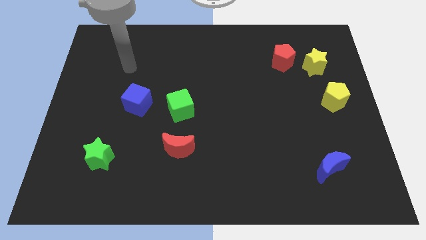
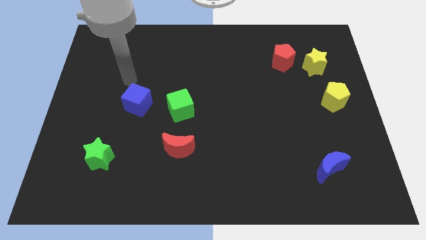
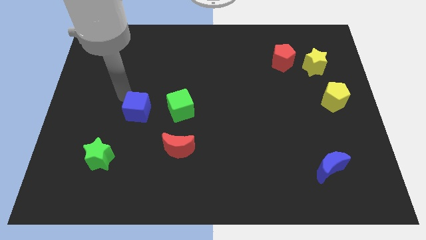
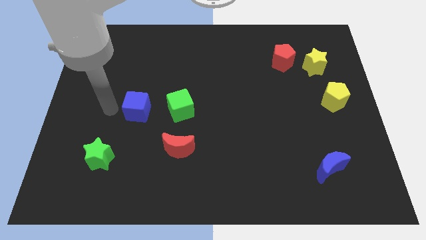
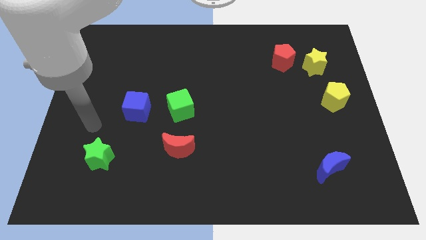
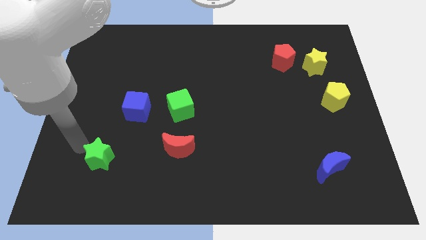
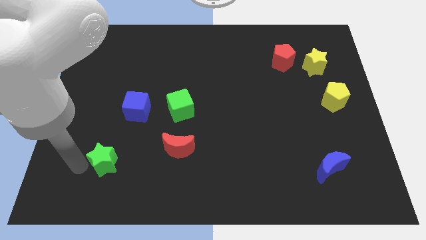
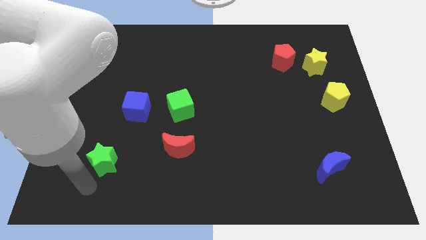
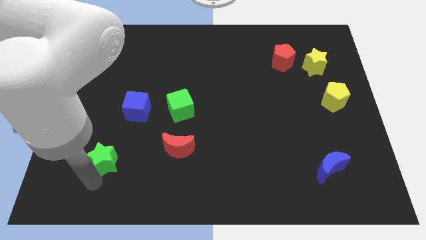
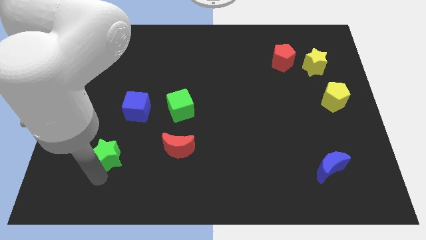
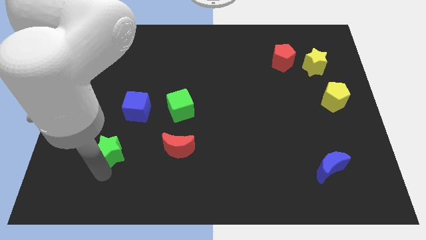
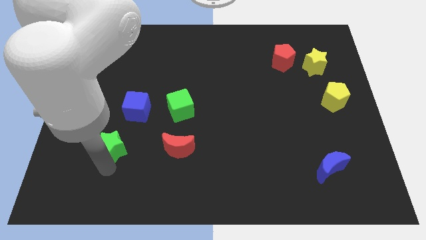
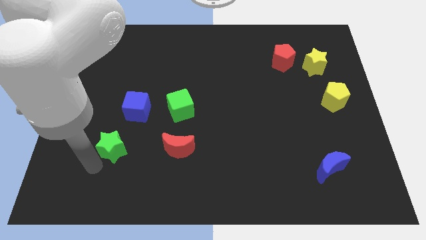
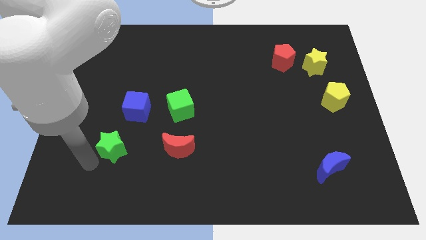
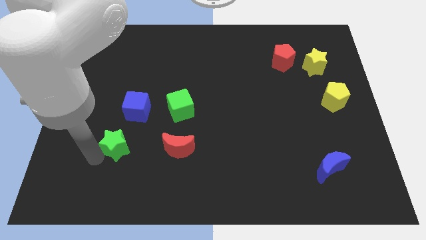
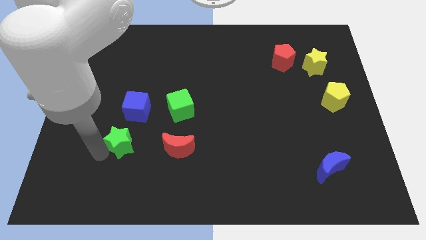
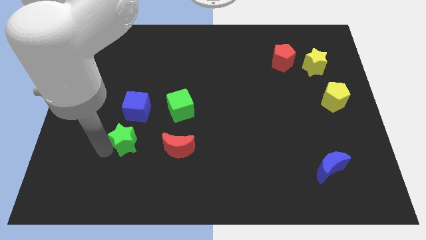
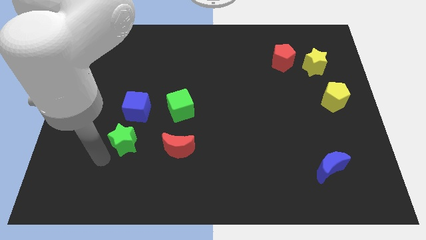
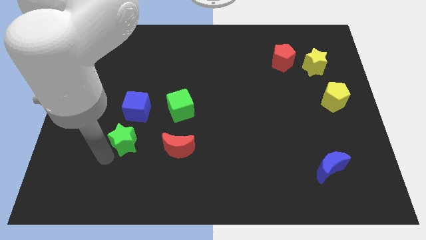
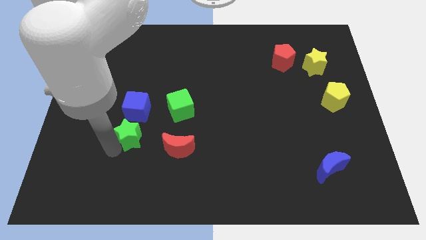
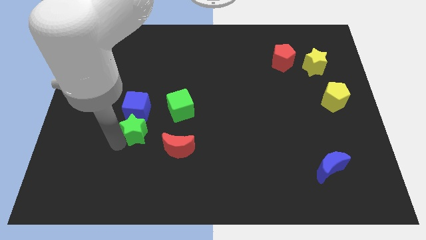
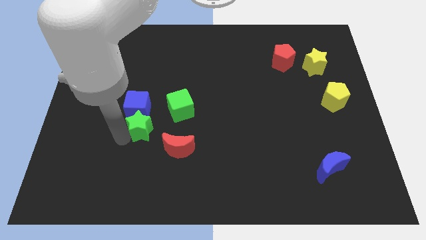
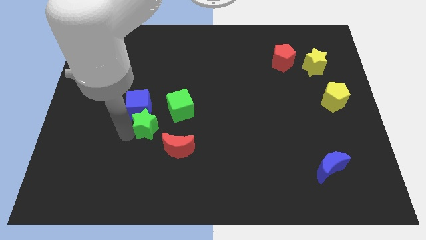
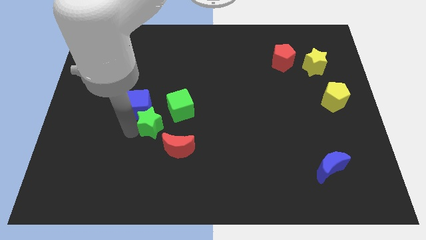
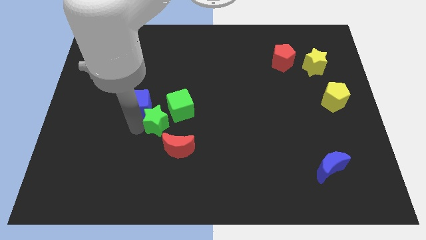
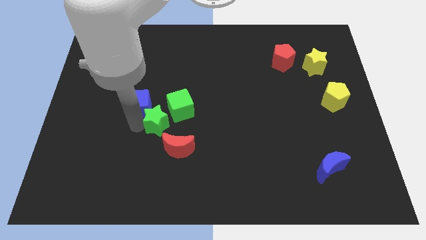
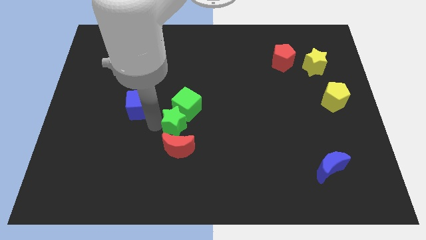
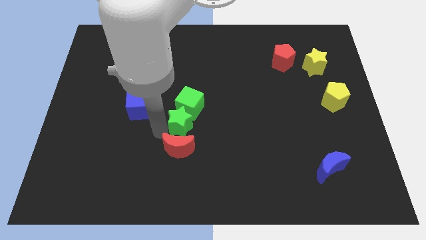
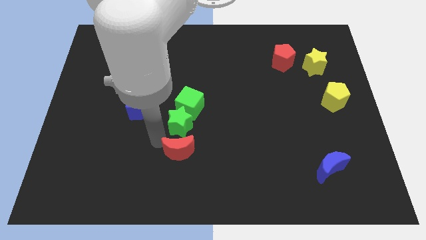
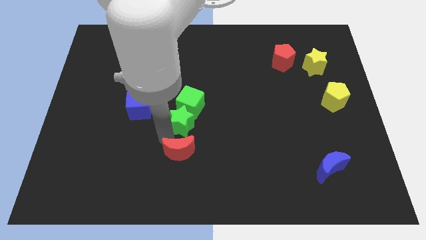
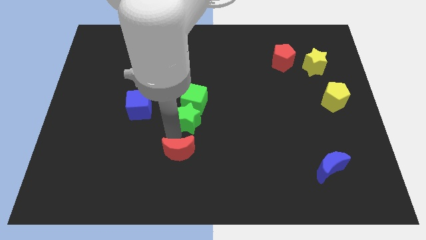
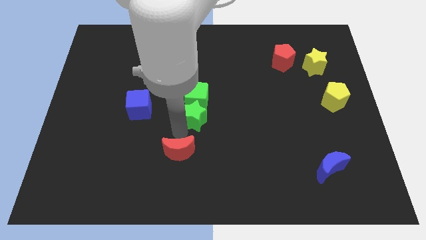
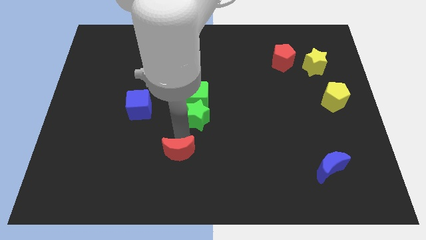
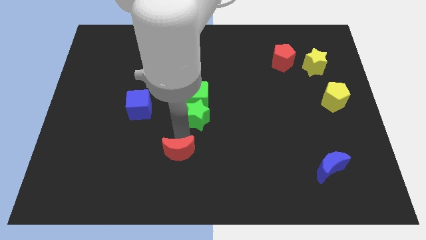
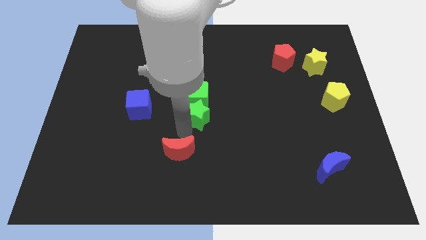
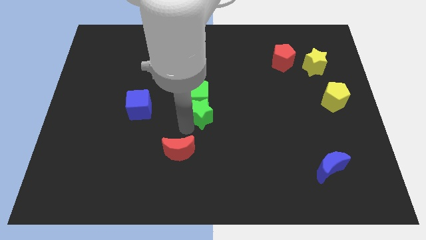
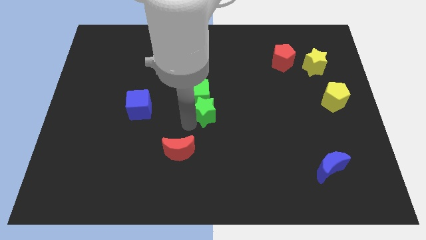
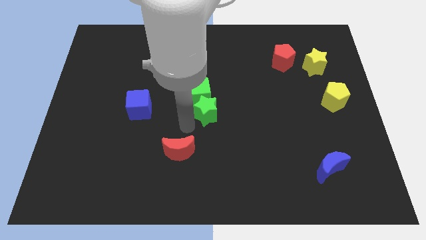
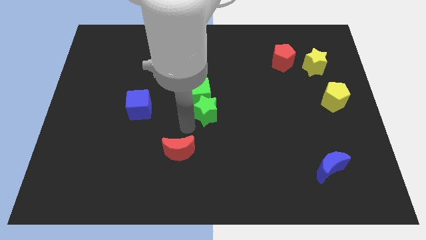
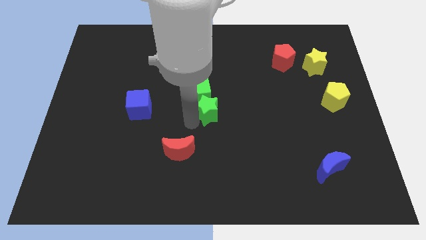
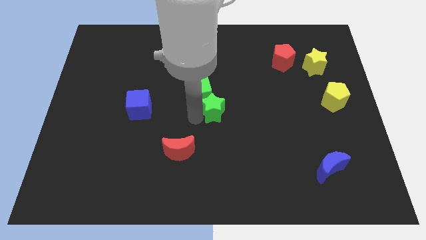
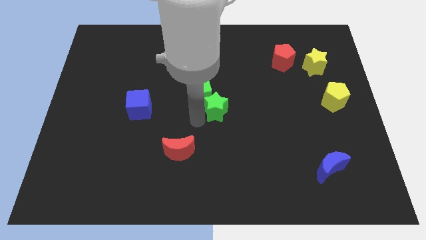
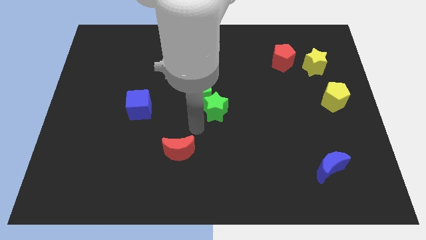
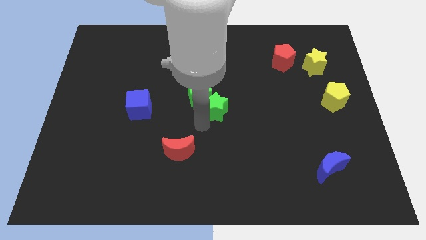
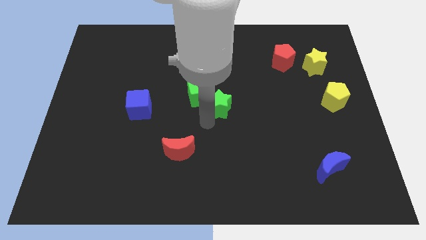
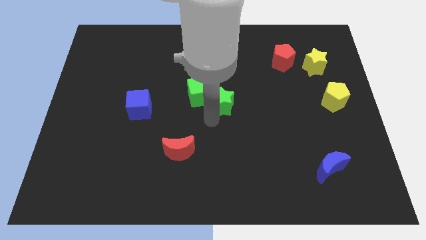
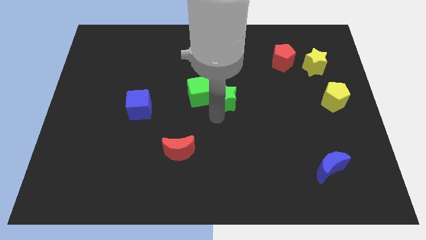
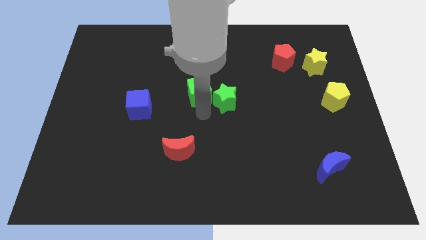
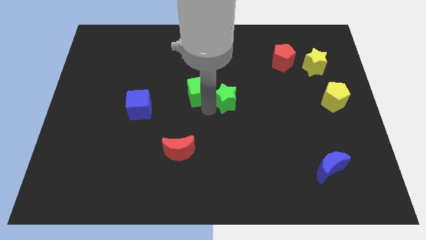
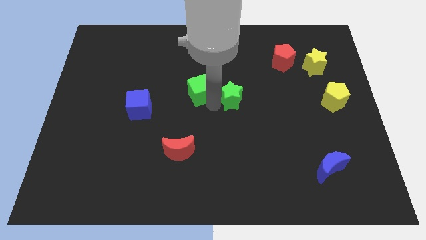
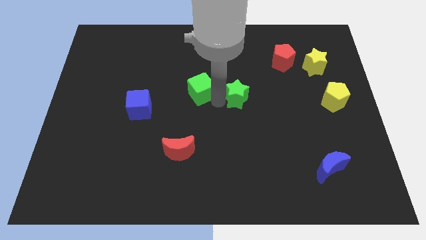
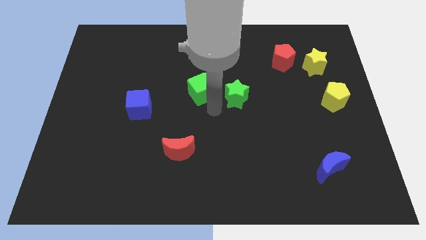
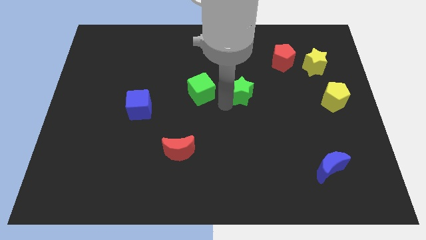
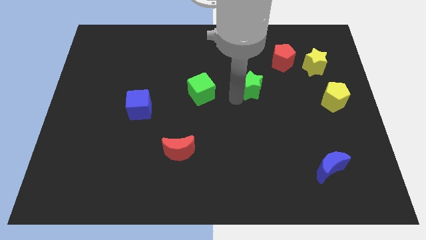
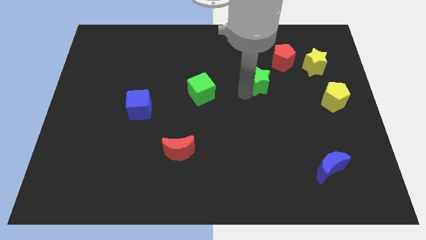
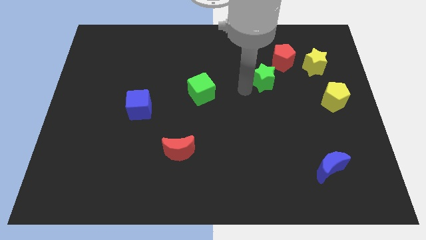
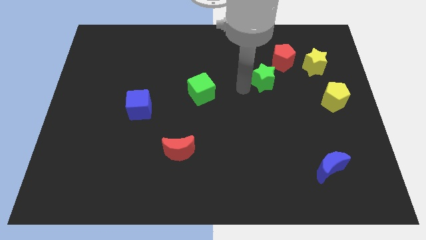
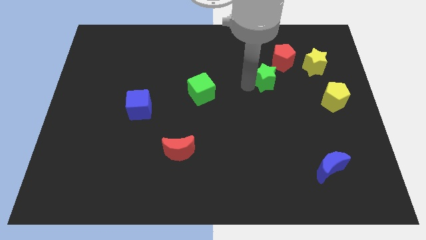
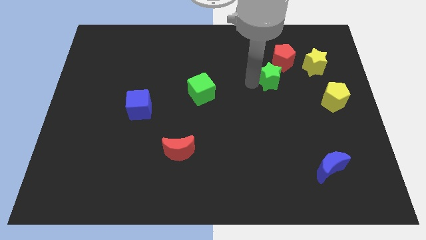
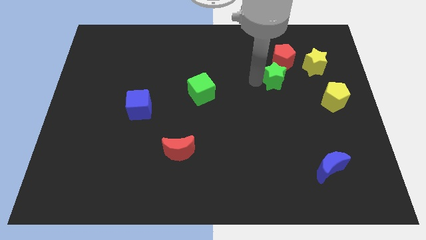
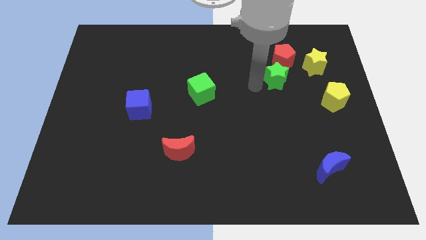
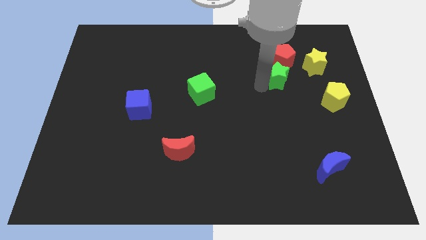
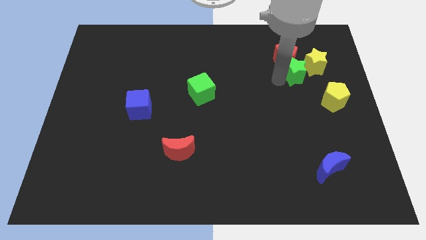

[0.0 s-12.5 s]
move the green star next to the yellow star
